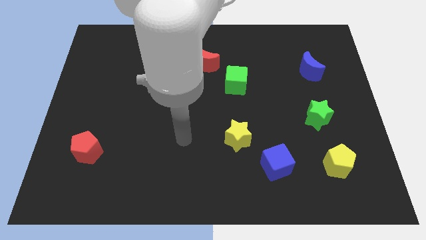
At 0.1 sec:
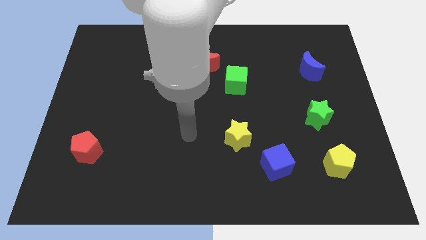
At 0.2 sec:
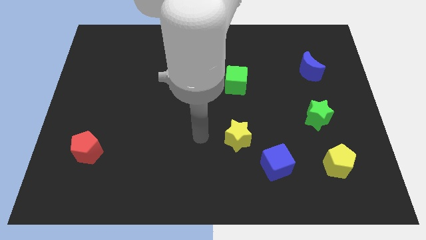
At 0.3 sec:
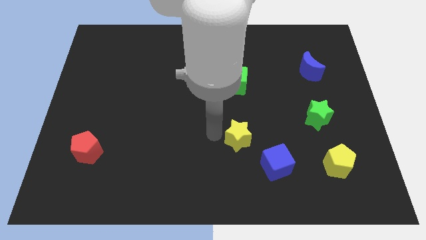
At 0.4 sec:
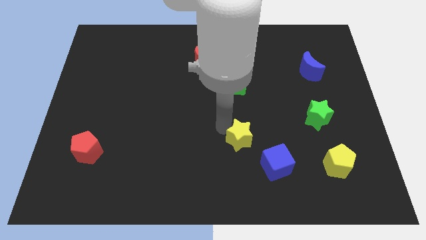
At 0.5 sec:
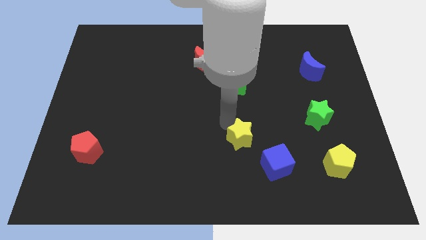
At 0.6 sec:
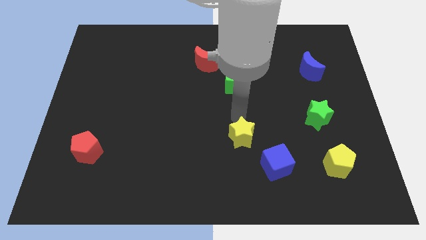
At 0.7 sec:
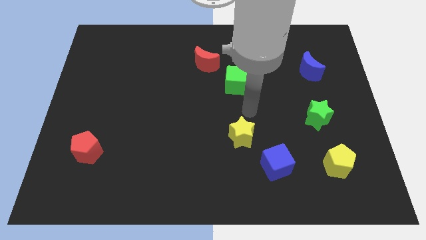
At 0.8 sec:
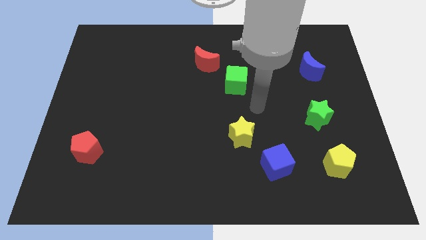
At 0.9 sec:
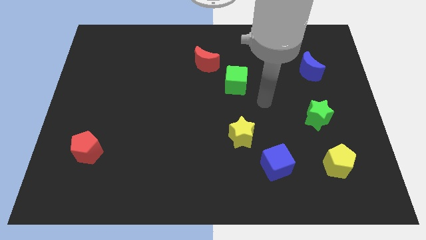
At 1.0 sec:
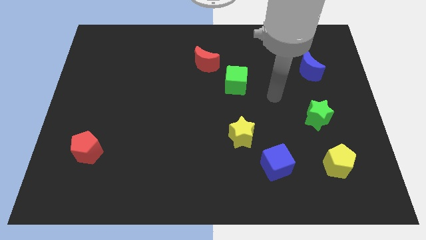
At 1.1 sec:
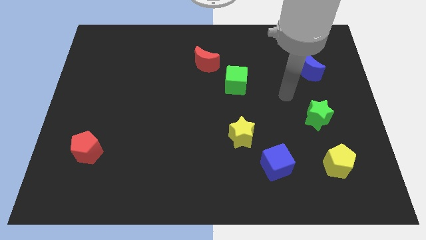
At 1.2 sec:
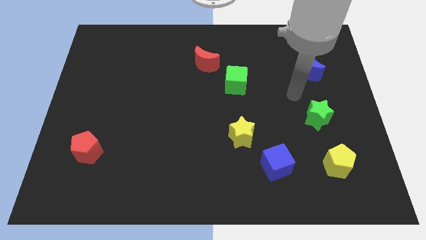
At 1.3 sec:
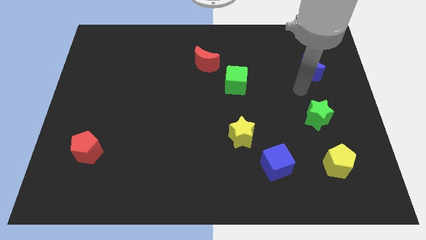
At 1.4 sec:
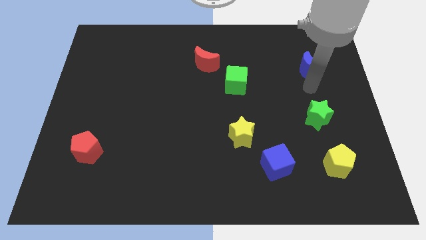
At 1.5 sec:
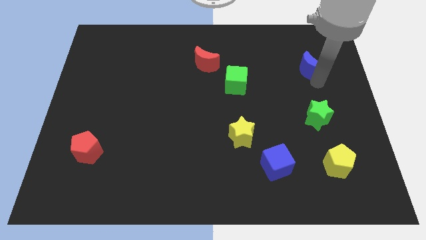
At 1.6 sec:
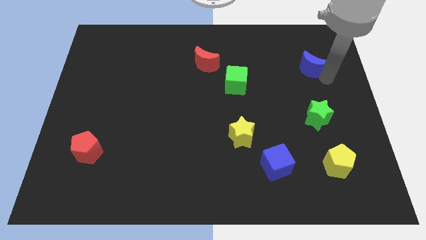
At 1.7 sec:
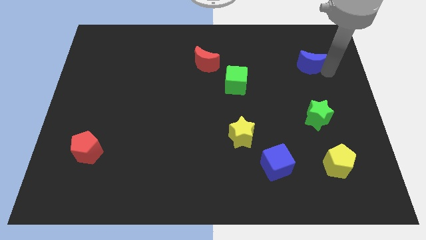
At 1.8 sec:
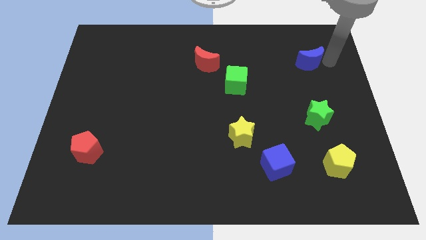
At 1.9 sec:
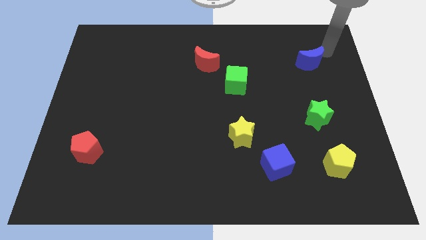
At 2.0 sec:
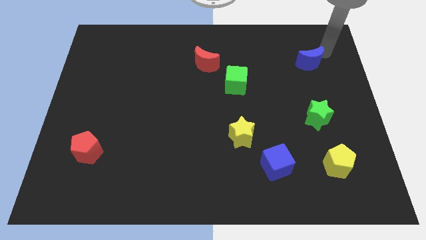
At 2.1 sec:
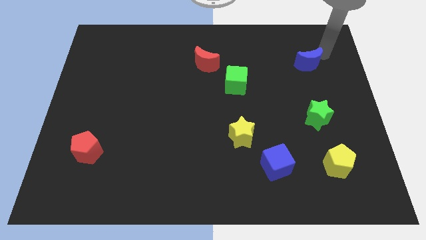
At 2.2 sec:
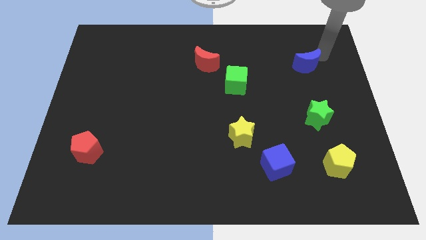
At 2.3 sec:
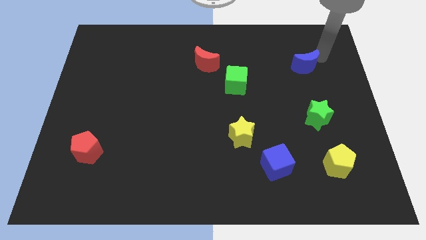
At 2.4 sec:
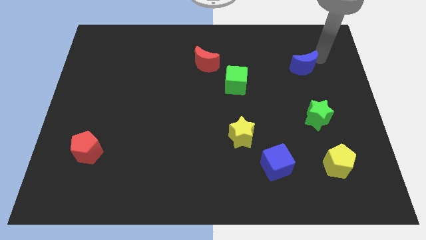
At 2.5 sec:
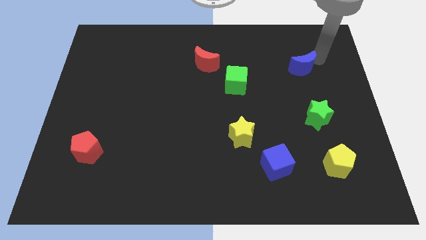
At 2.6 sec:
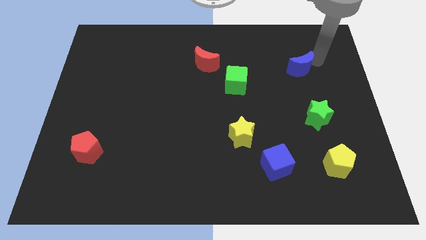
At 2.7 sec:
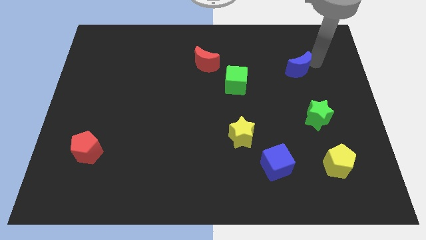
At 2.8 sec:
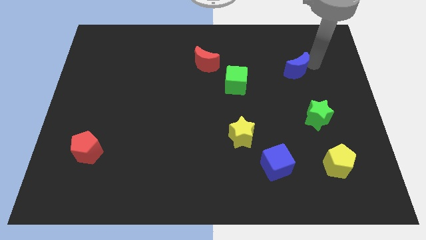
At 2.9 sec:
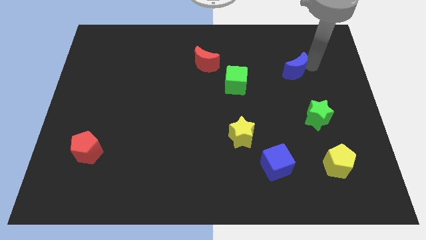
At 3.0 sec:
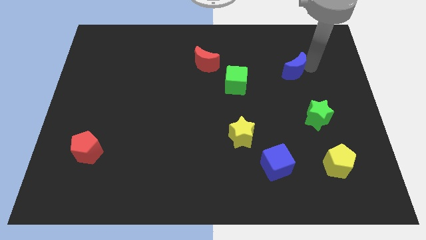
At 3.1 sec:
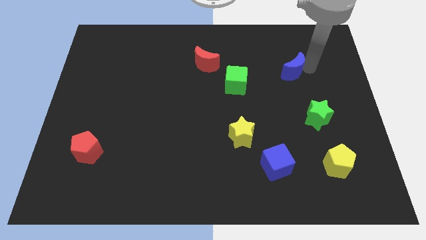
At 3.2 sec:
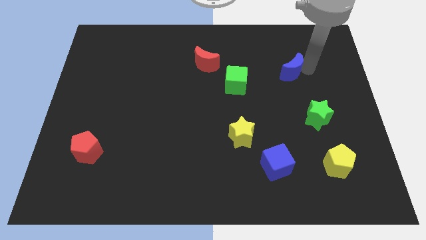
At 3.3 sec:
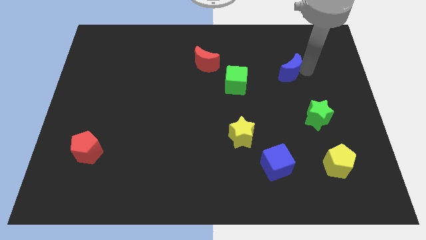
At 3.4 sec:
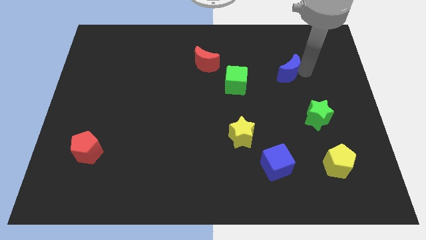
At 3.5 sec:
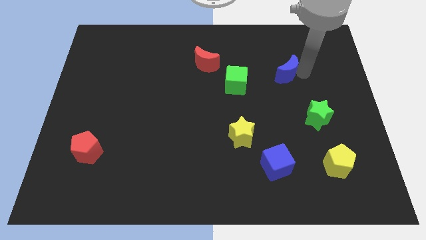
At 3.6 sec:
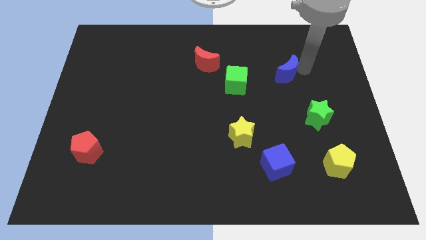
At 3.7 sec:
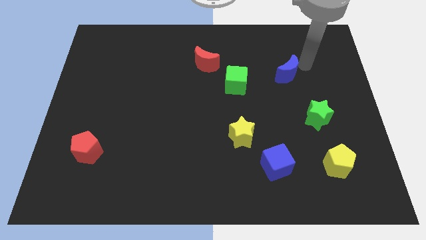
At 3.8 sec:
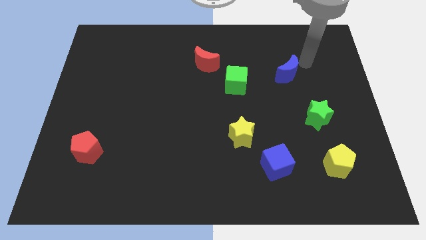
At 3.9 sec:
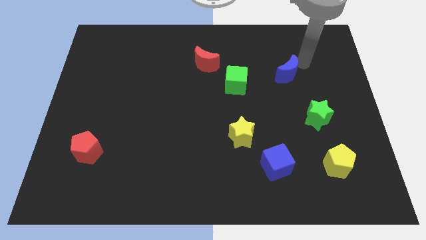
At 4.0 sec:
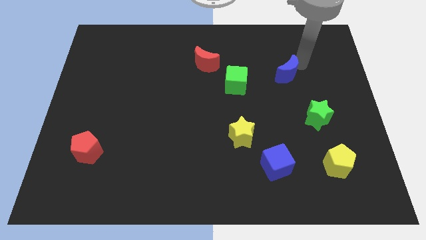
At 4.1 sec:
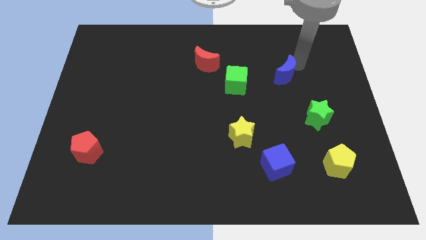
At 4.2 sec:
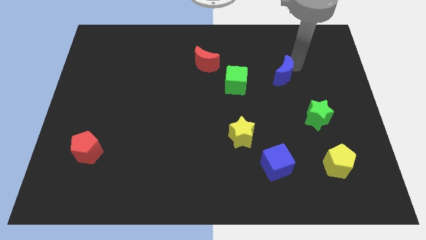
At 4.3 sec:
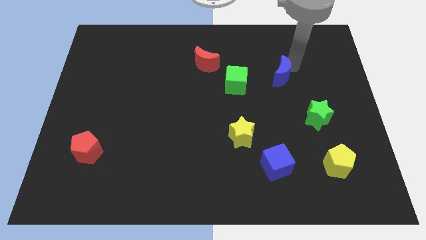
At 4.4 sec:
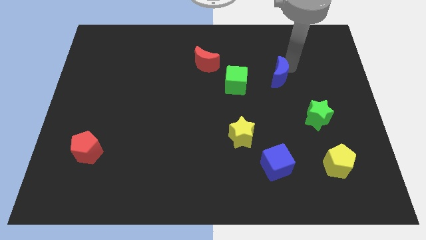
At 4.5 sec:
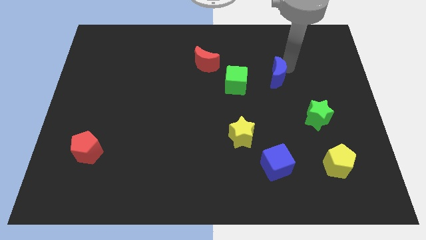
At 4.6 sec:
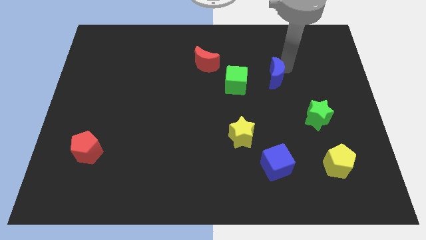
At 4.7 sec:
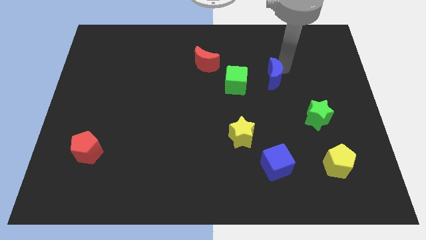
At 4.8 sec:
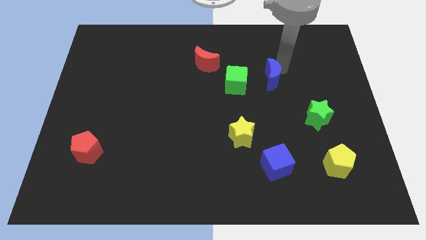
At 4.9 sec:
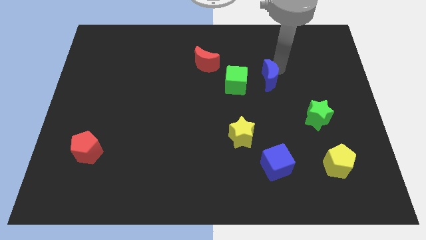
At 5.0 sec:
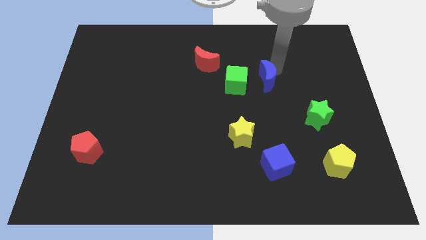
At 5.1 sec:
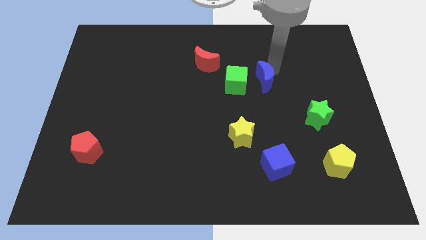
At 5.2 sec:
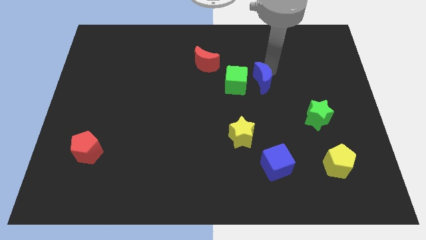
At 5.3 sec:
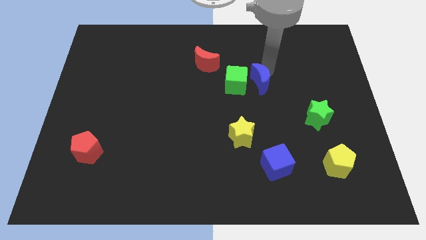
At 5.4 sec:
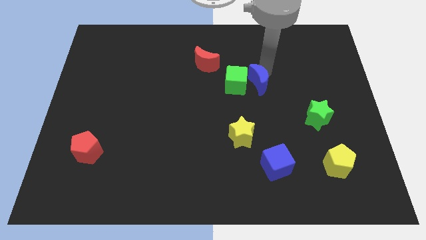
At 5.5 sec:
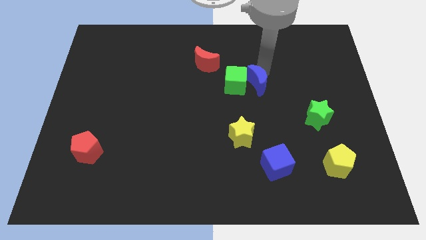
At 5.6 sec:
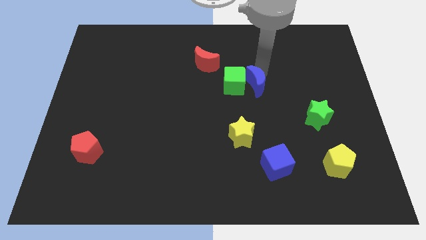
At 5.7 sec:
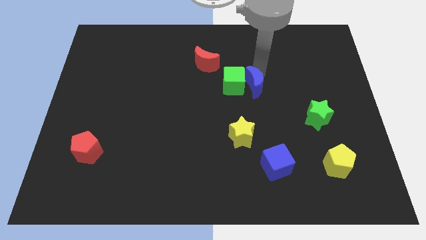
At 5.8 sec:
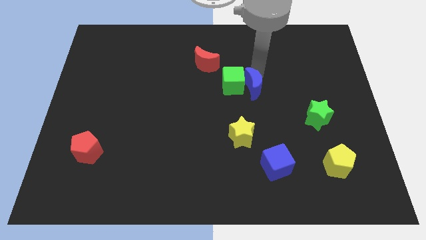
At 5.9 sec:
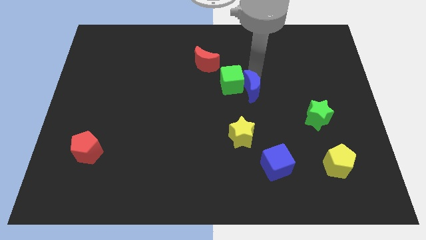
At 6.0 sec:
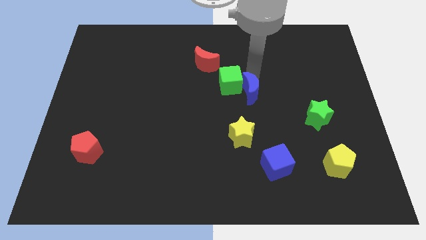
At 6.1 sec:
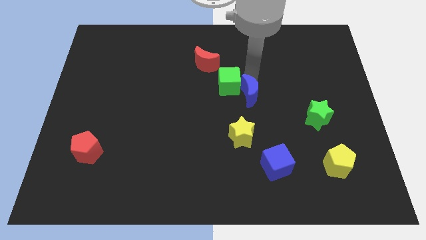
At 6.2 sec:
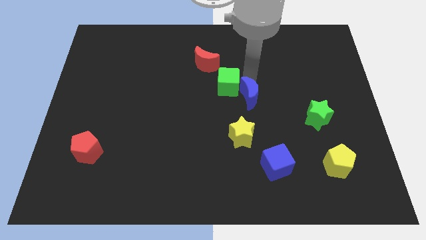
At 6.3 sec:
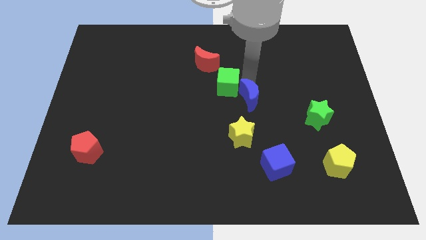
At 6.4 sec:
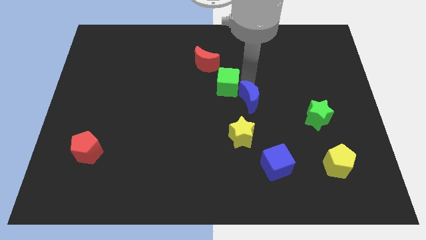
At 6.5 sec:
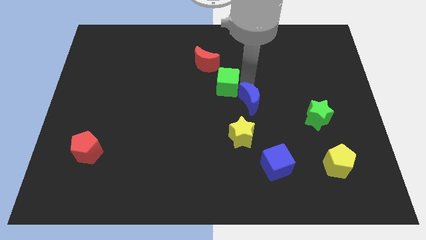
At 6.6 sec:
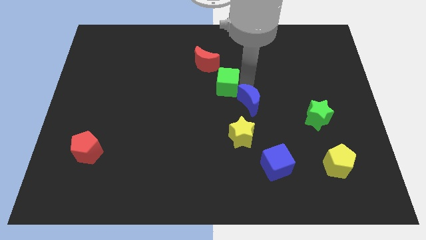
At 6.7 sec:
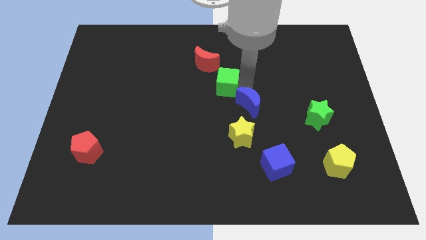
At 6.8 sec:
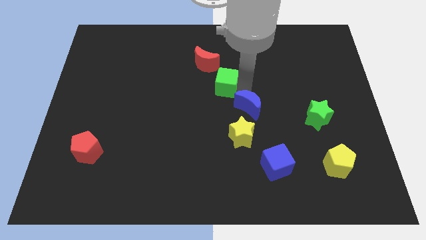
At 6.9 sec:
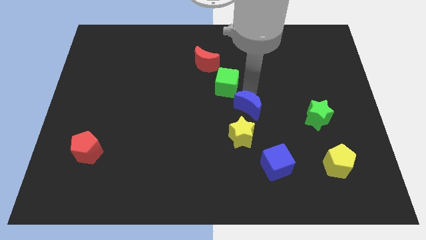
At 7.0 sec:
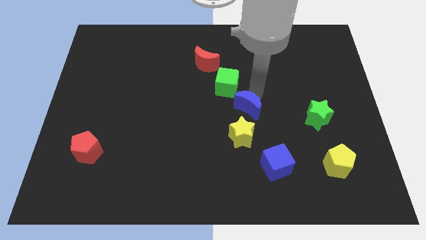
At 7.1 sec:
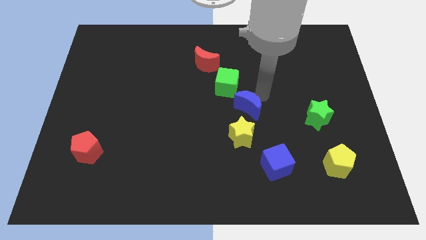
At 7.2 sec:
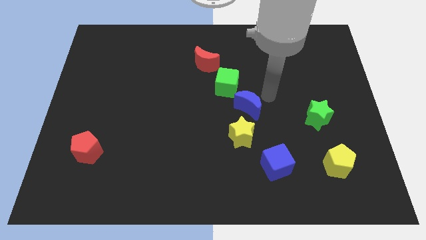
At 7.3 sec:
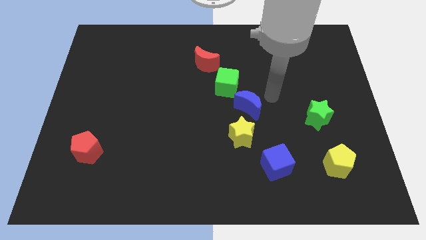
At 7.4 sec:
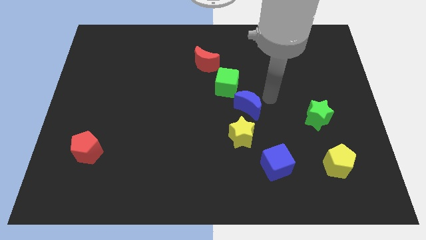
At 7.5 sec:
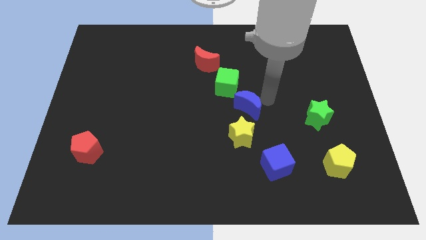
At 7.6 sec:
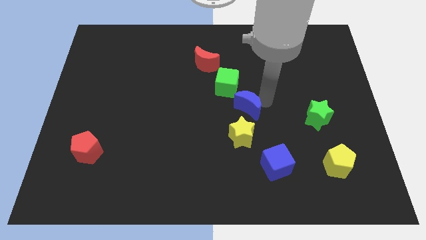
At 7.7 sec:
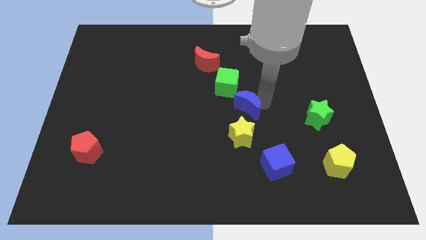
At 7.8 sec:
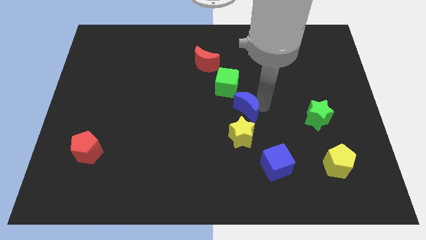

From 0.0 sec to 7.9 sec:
push the blue moon downwards and to the left diagonally

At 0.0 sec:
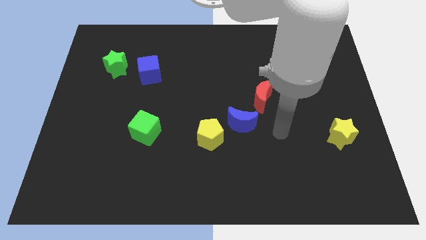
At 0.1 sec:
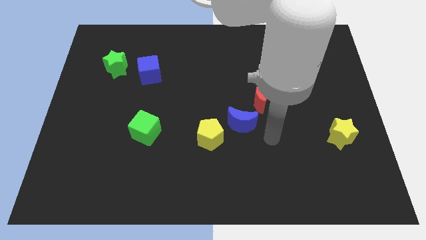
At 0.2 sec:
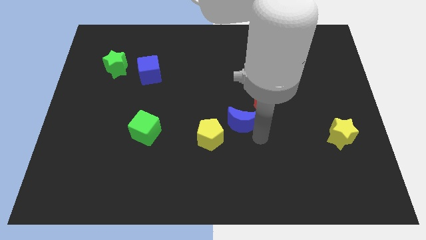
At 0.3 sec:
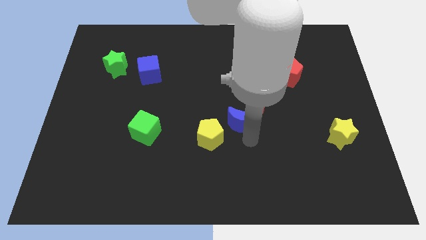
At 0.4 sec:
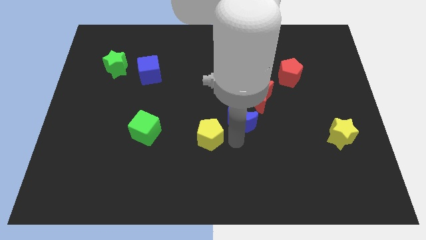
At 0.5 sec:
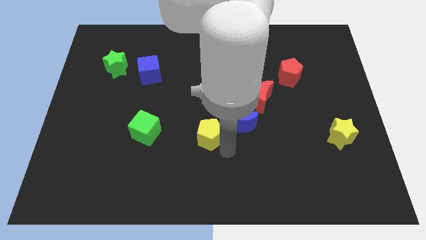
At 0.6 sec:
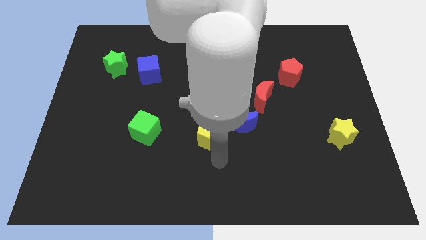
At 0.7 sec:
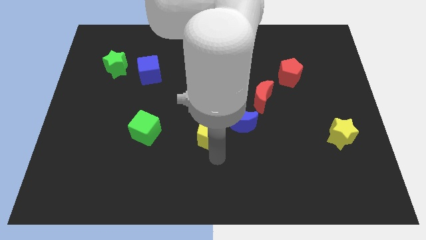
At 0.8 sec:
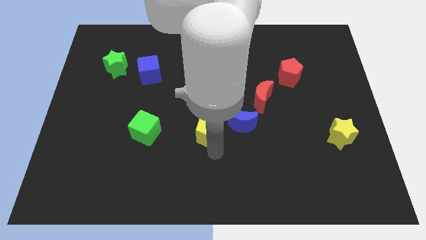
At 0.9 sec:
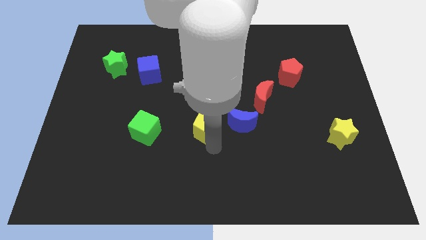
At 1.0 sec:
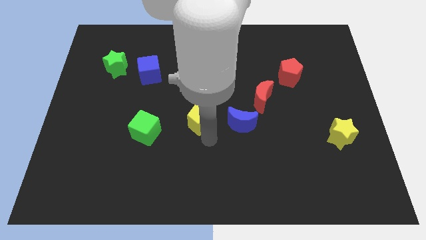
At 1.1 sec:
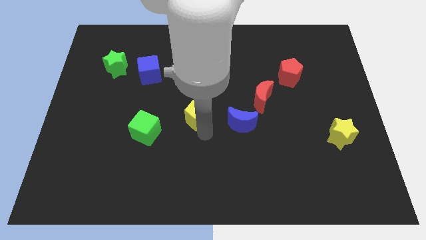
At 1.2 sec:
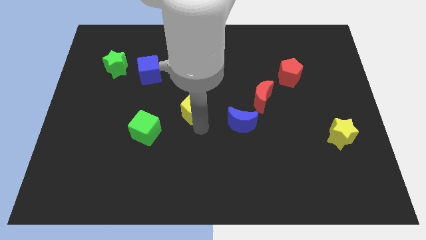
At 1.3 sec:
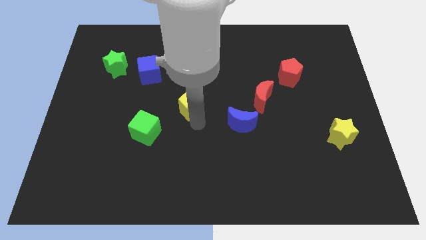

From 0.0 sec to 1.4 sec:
push the yellow pentagon up a little
